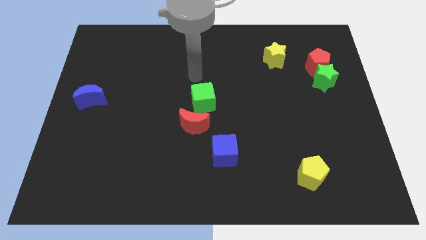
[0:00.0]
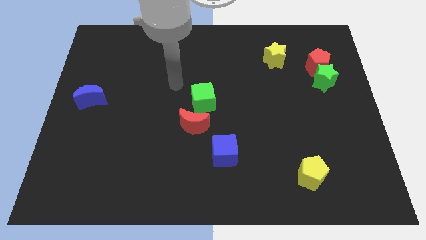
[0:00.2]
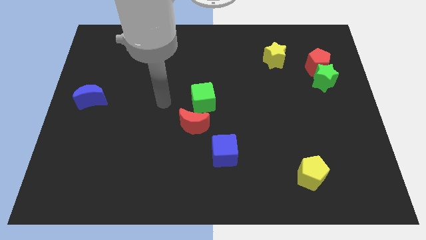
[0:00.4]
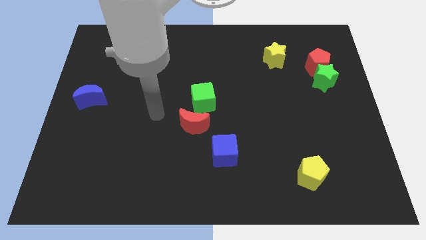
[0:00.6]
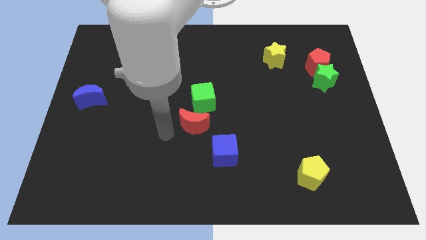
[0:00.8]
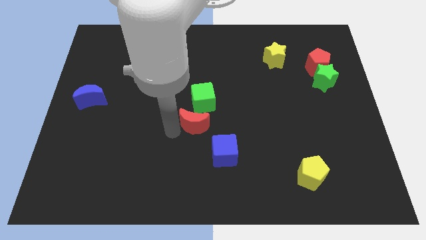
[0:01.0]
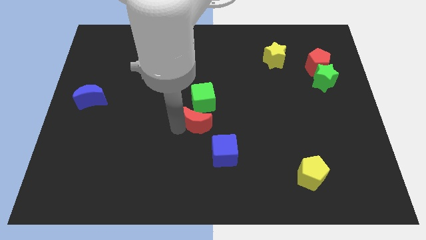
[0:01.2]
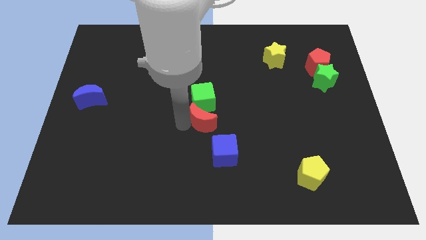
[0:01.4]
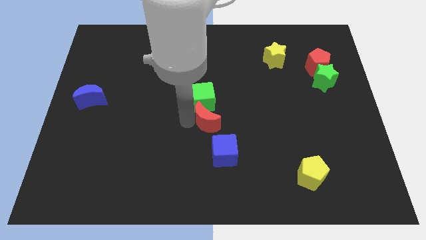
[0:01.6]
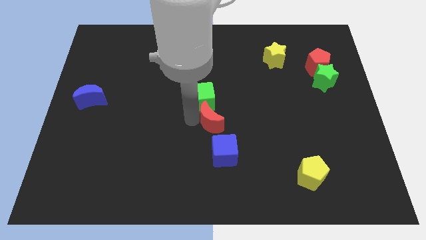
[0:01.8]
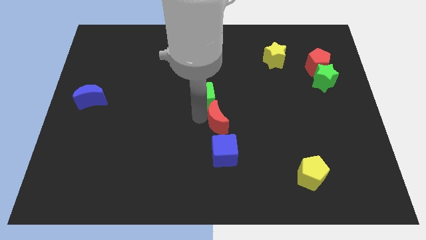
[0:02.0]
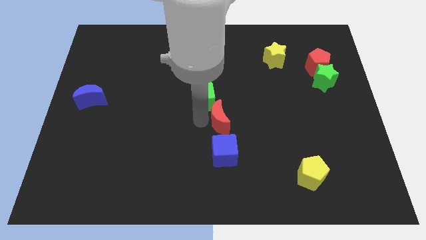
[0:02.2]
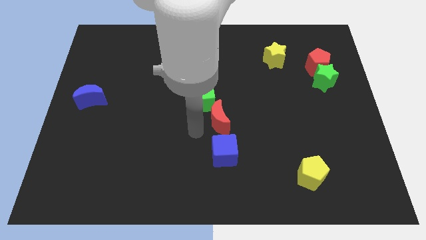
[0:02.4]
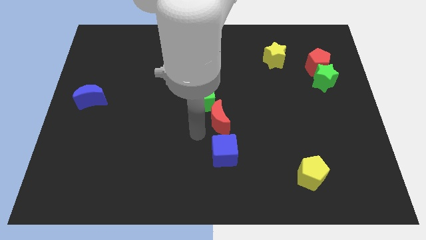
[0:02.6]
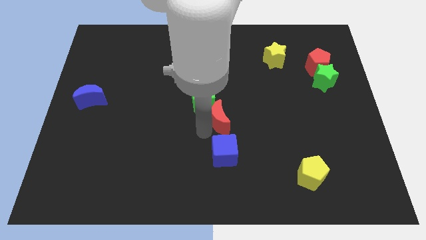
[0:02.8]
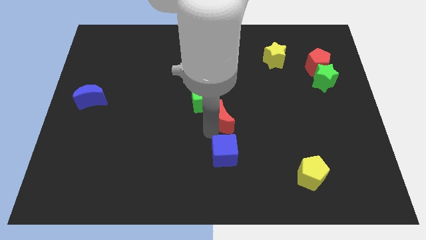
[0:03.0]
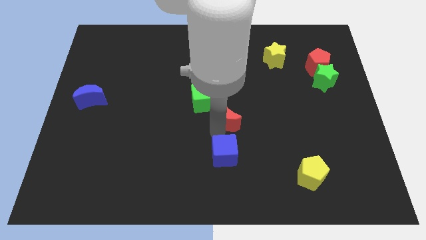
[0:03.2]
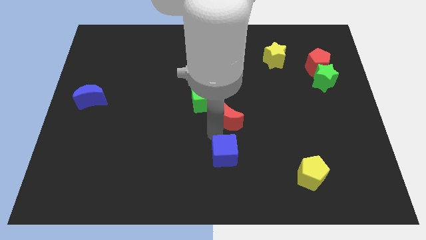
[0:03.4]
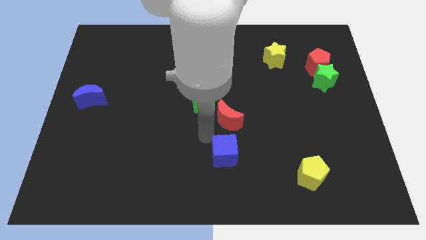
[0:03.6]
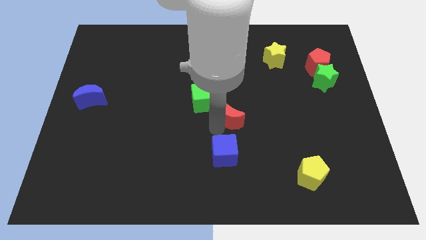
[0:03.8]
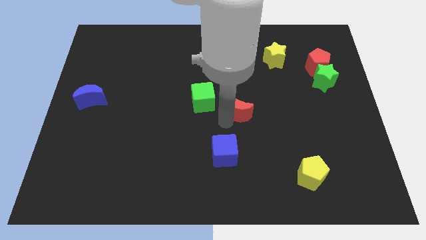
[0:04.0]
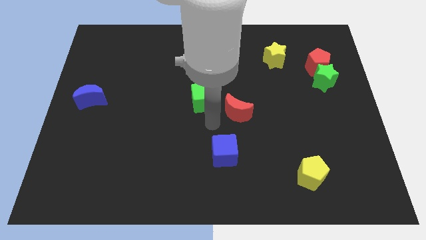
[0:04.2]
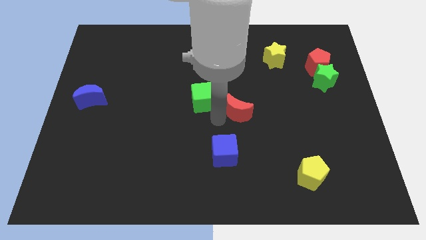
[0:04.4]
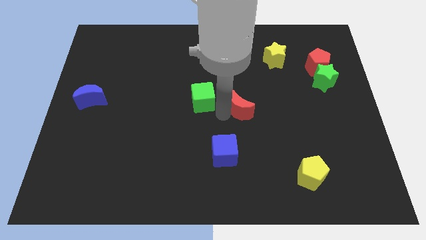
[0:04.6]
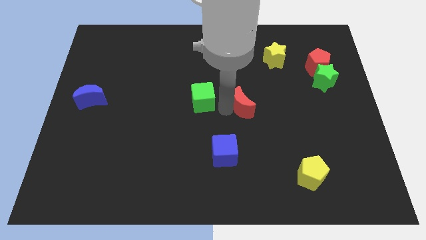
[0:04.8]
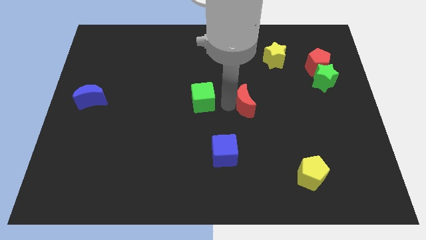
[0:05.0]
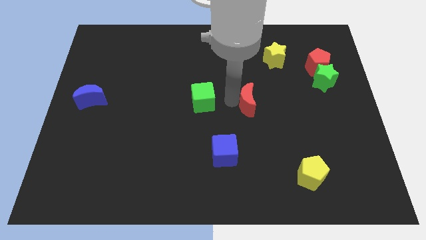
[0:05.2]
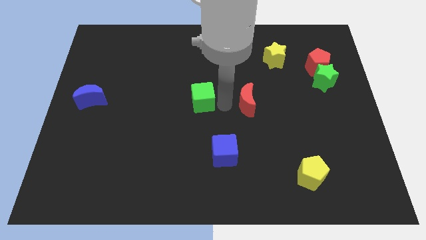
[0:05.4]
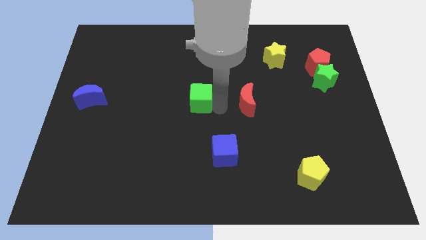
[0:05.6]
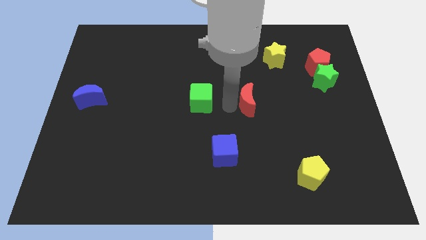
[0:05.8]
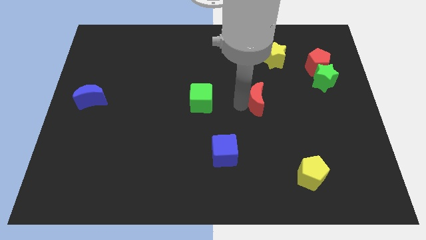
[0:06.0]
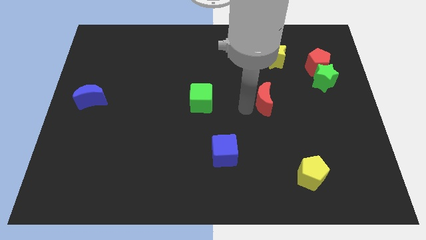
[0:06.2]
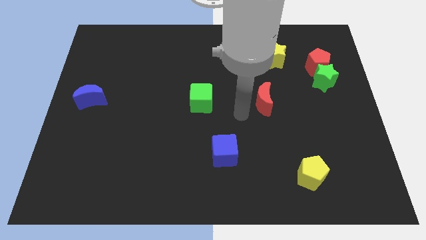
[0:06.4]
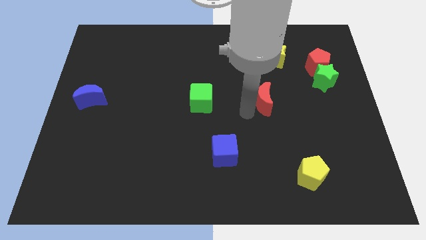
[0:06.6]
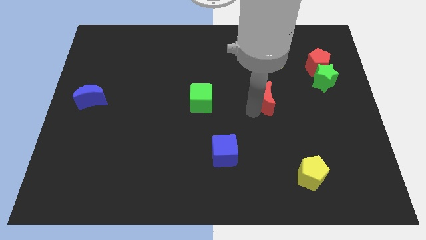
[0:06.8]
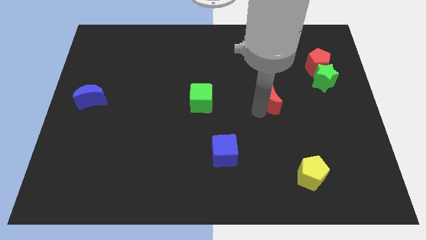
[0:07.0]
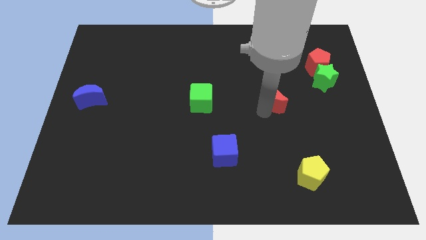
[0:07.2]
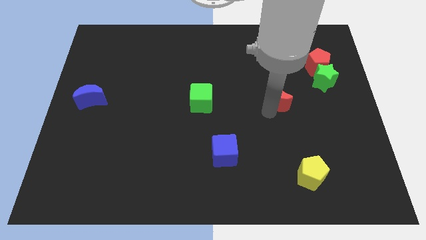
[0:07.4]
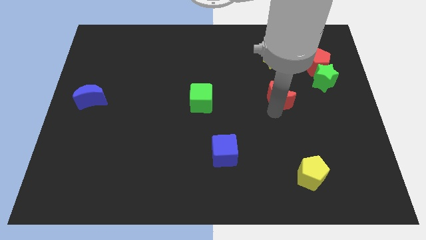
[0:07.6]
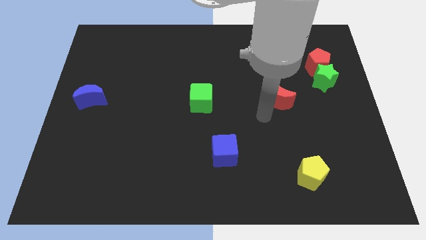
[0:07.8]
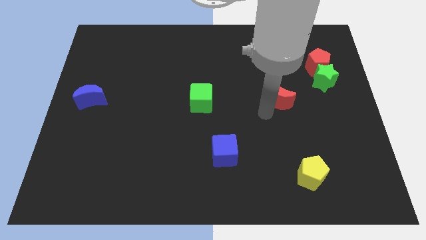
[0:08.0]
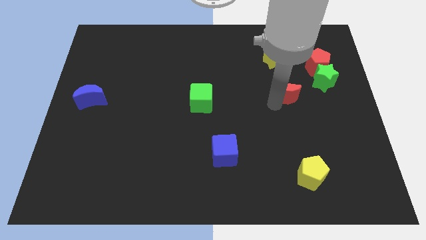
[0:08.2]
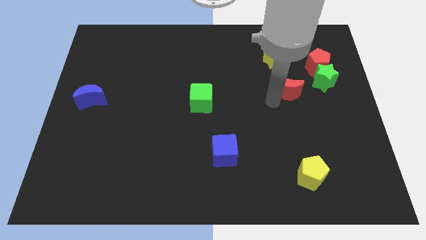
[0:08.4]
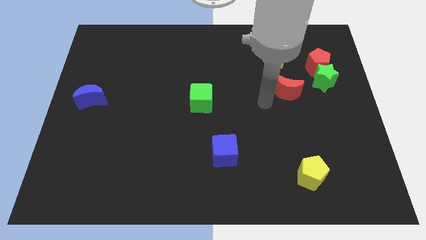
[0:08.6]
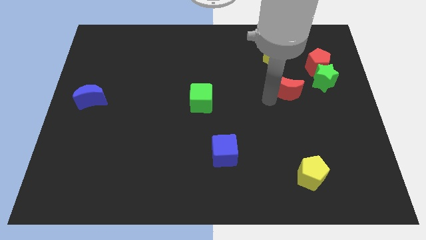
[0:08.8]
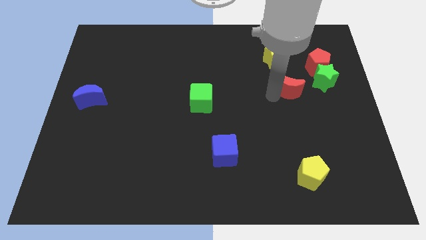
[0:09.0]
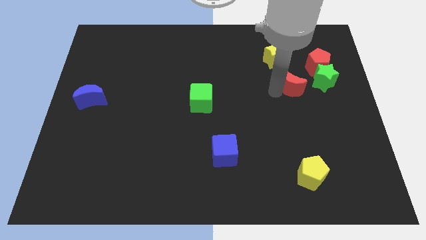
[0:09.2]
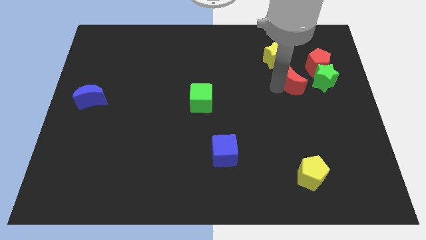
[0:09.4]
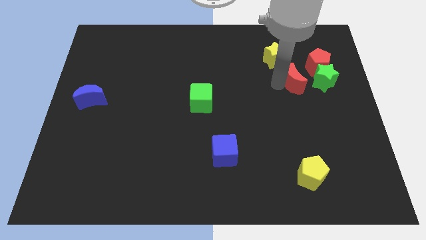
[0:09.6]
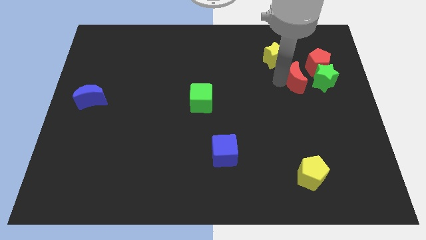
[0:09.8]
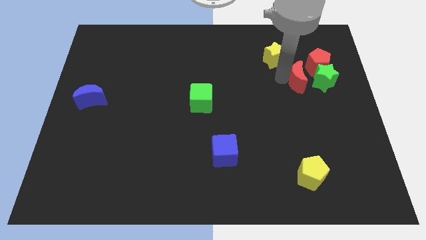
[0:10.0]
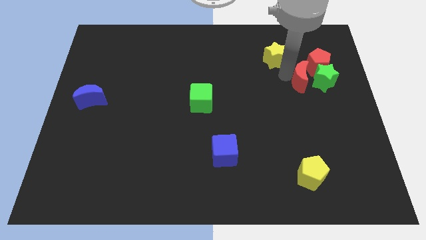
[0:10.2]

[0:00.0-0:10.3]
push the red moon close to the green star

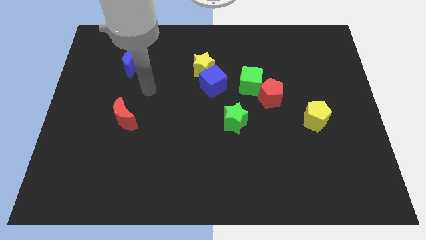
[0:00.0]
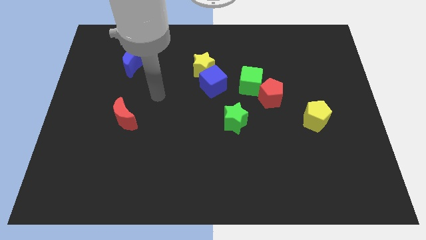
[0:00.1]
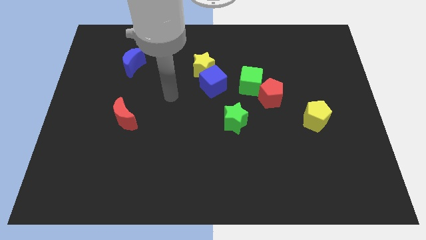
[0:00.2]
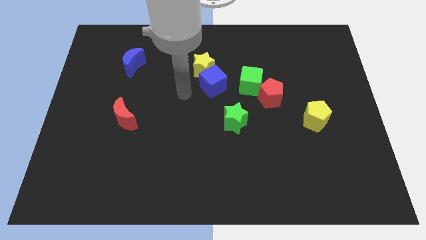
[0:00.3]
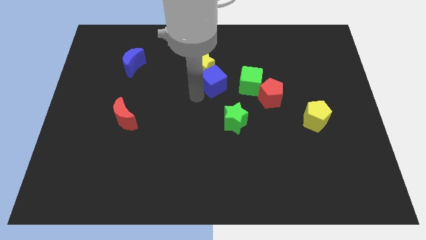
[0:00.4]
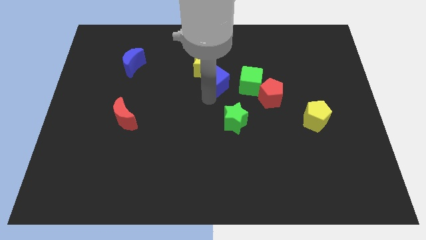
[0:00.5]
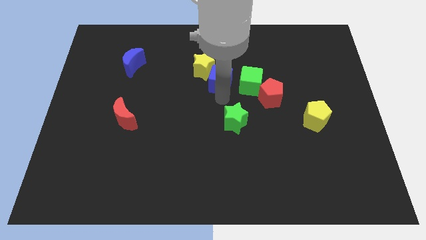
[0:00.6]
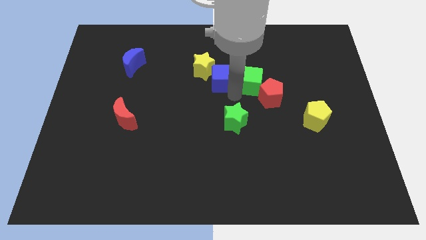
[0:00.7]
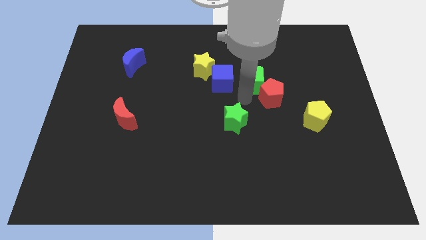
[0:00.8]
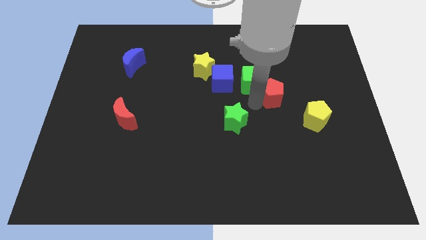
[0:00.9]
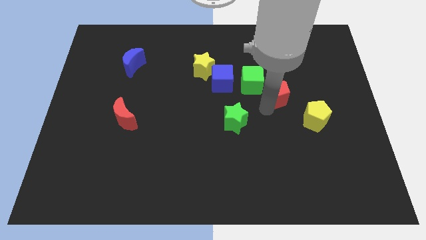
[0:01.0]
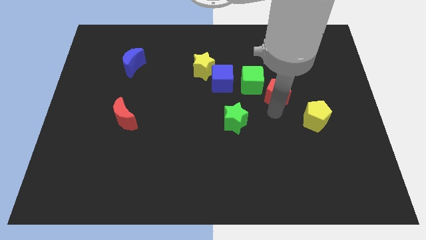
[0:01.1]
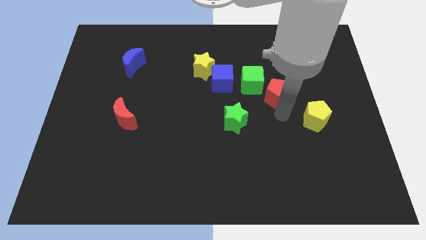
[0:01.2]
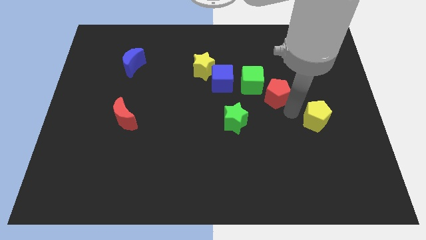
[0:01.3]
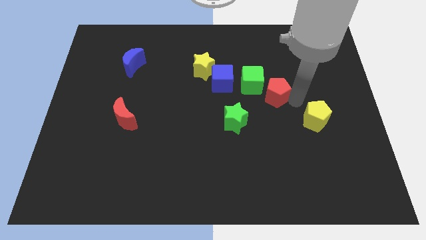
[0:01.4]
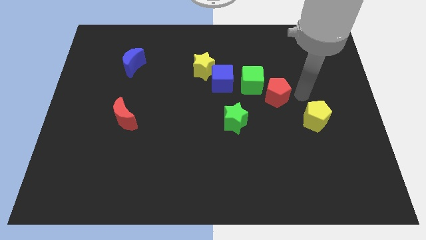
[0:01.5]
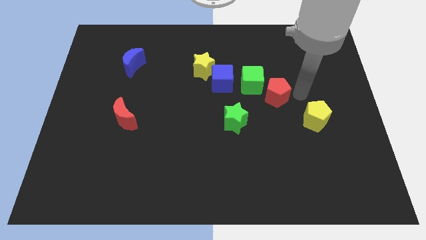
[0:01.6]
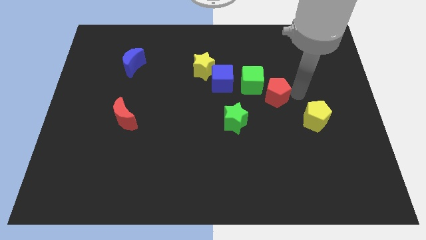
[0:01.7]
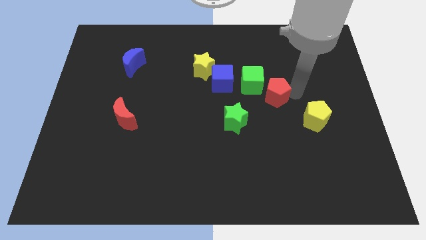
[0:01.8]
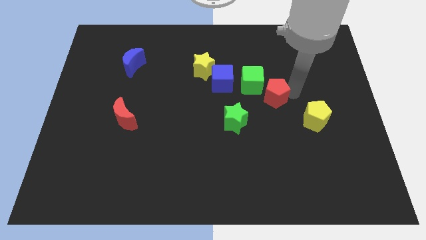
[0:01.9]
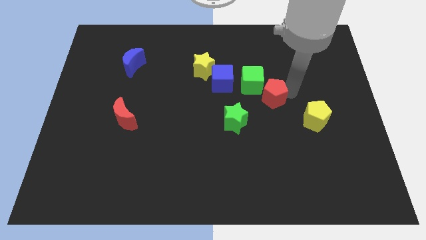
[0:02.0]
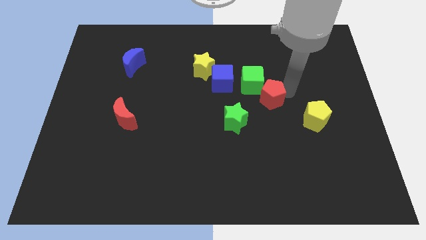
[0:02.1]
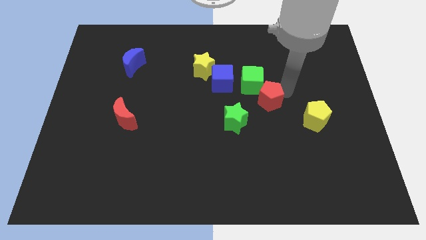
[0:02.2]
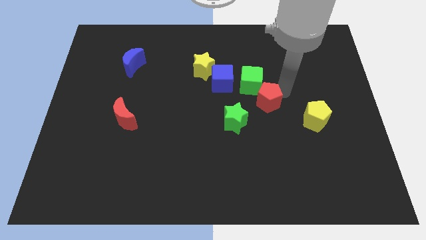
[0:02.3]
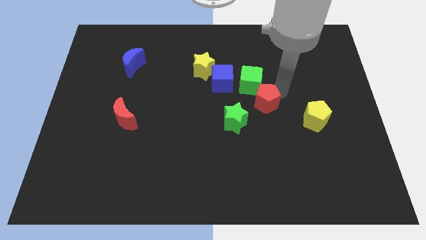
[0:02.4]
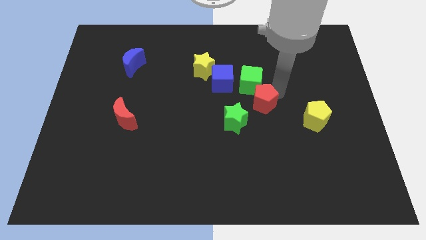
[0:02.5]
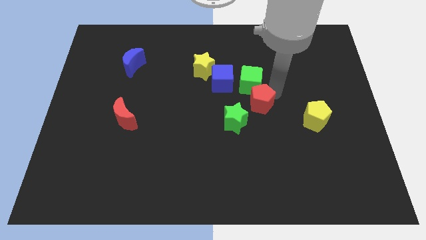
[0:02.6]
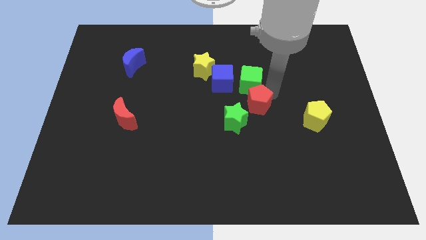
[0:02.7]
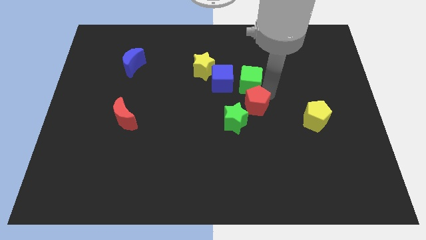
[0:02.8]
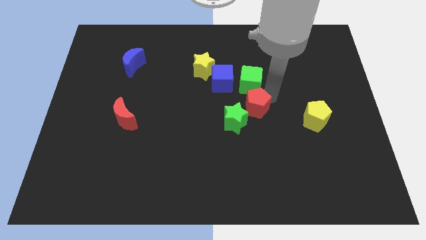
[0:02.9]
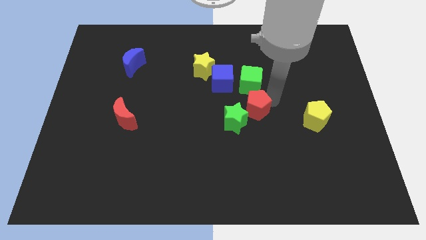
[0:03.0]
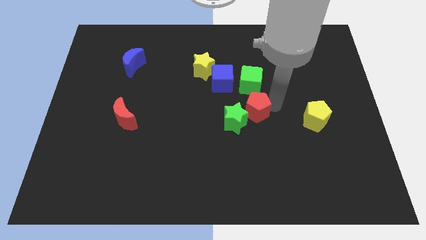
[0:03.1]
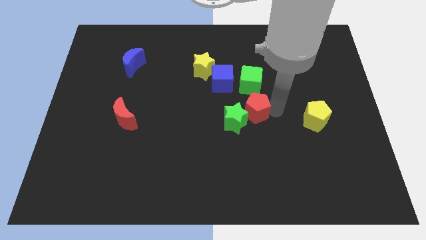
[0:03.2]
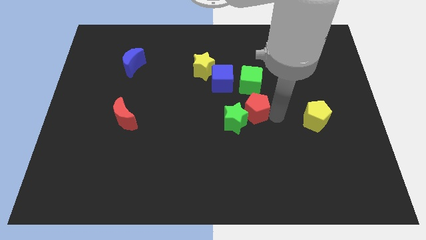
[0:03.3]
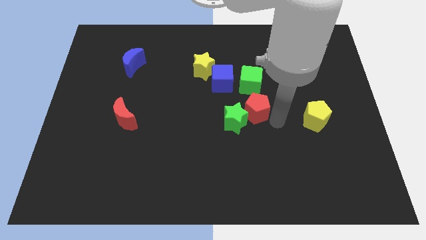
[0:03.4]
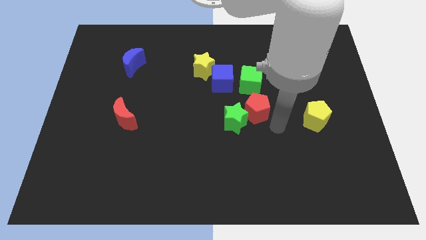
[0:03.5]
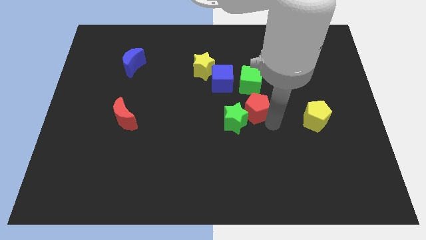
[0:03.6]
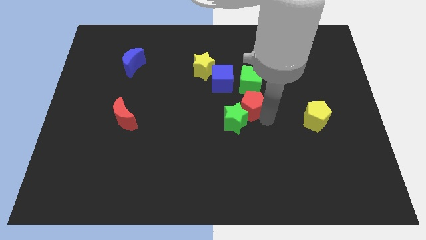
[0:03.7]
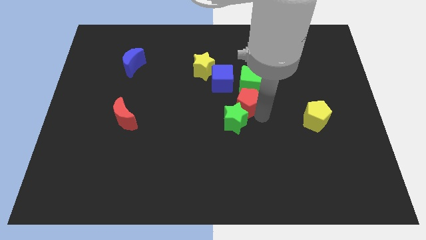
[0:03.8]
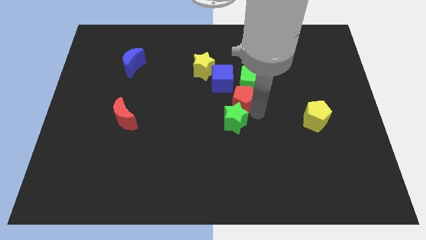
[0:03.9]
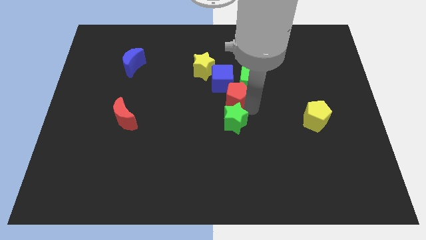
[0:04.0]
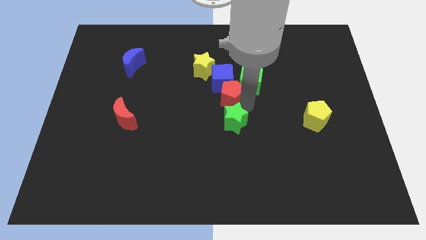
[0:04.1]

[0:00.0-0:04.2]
push the red pentagon towards the blue cube
